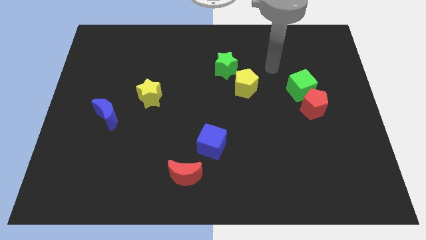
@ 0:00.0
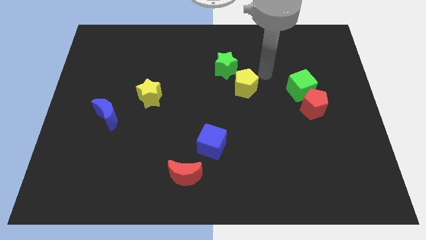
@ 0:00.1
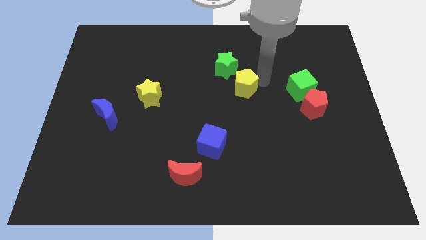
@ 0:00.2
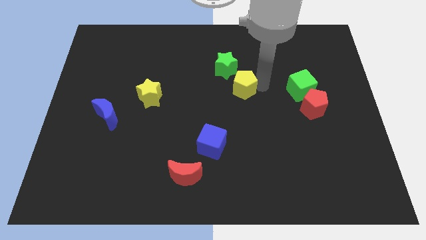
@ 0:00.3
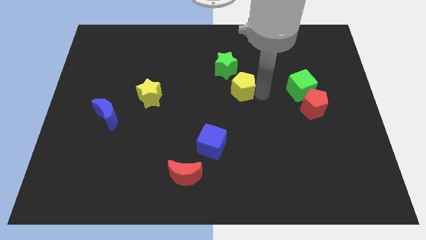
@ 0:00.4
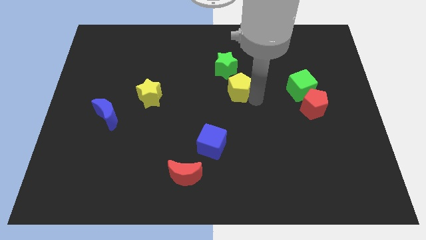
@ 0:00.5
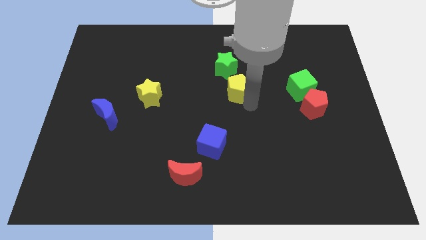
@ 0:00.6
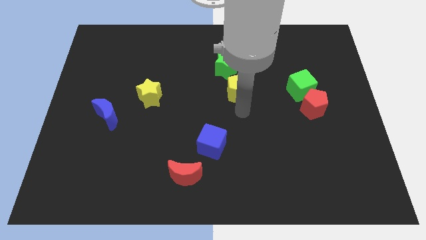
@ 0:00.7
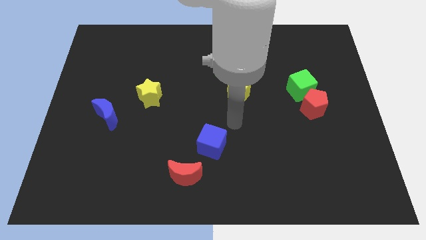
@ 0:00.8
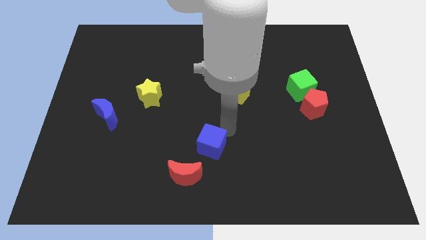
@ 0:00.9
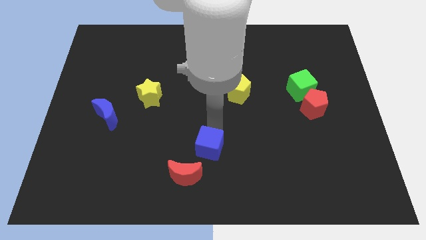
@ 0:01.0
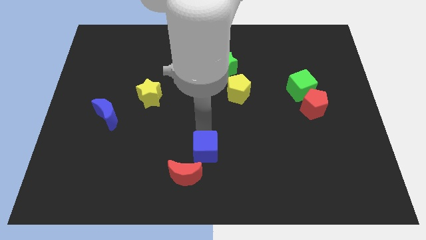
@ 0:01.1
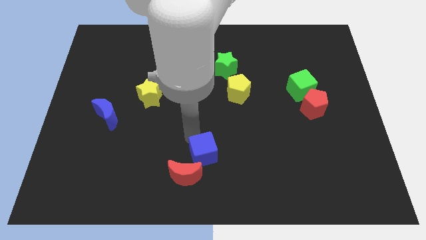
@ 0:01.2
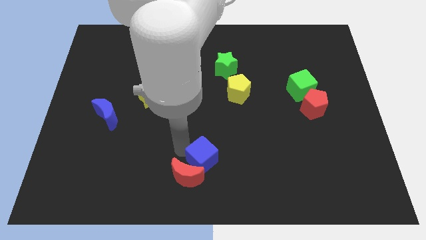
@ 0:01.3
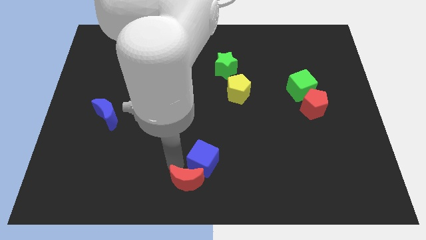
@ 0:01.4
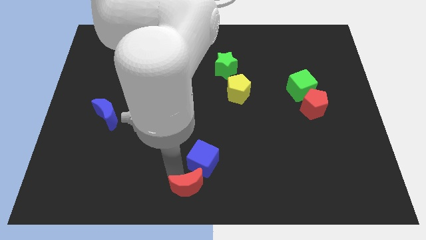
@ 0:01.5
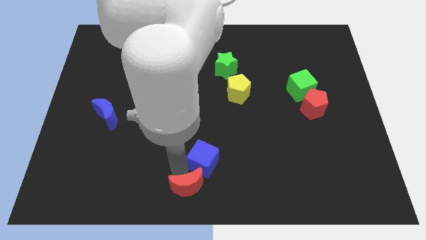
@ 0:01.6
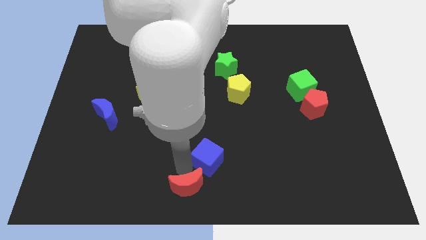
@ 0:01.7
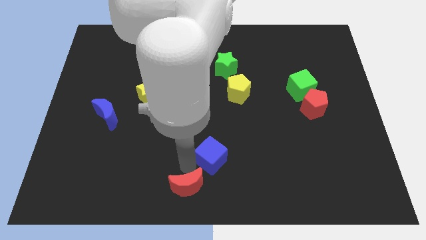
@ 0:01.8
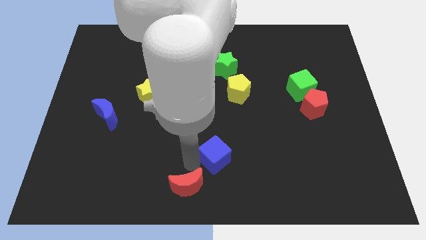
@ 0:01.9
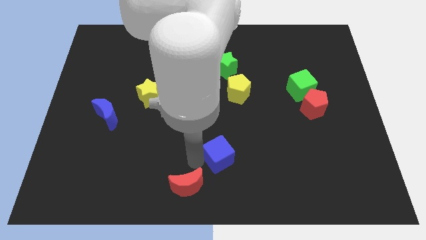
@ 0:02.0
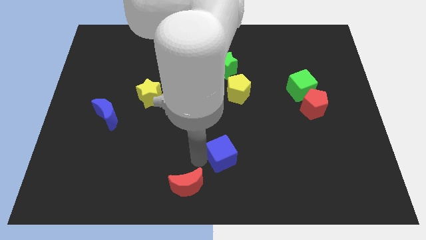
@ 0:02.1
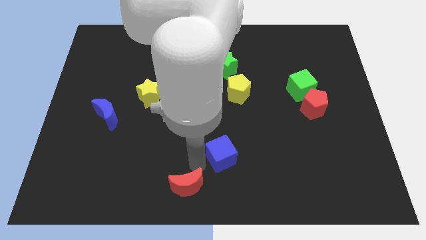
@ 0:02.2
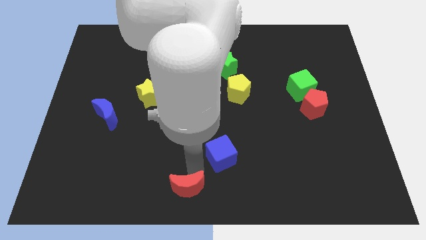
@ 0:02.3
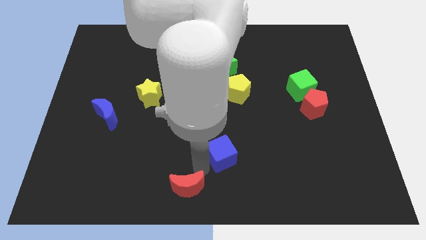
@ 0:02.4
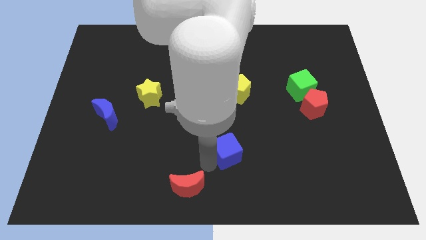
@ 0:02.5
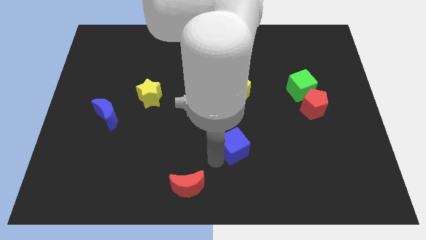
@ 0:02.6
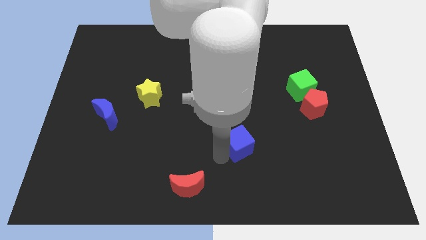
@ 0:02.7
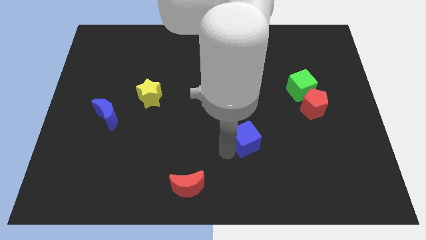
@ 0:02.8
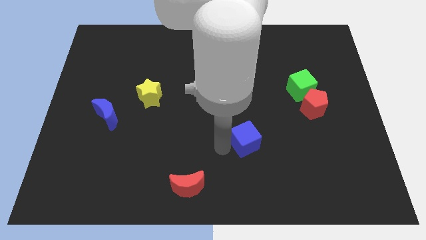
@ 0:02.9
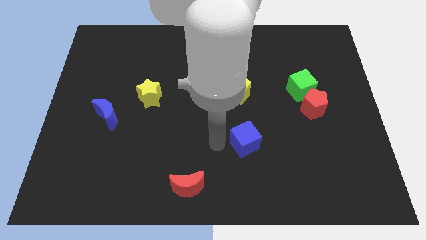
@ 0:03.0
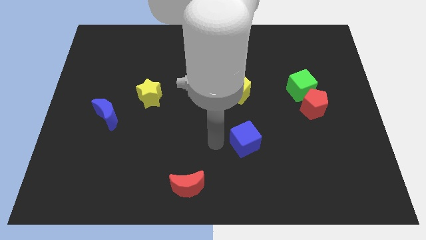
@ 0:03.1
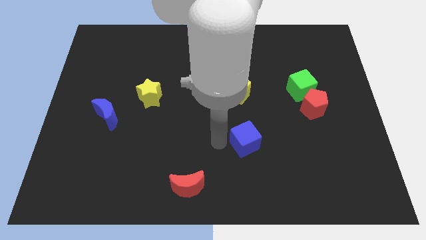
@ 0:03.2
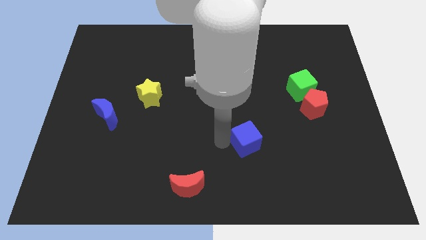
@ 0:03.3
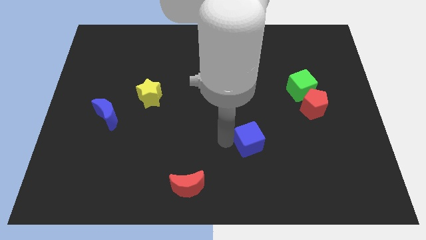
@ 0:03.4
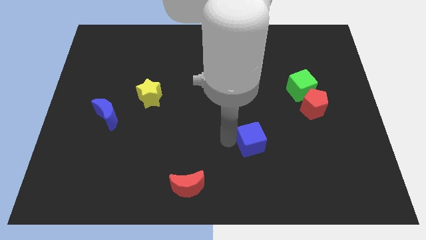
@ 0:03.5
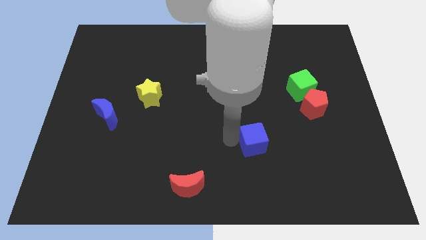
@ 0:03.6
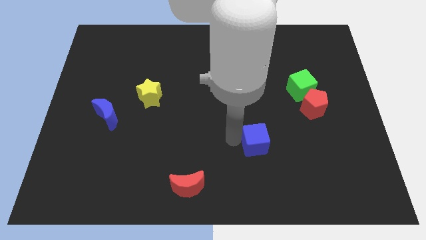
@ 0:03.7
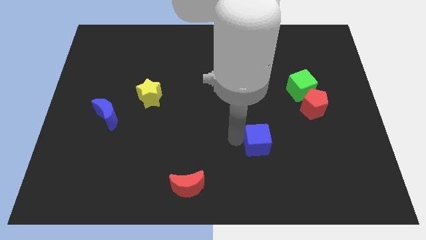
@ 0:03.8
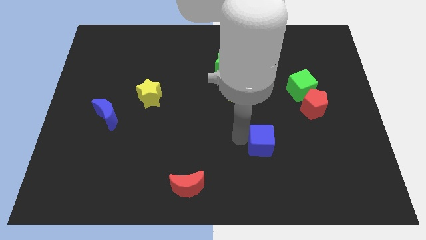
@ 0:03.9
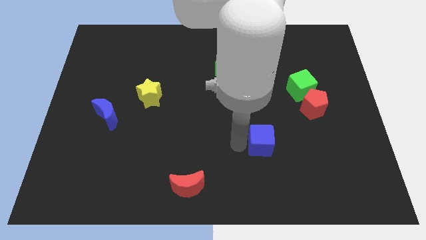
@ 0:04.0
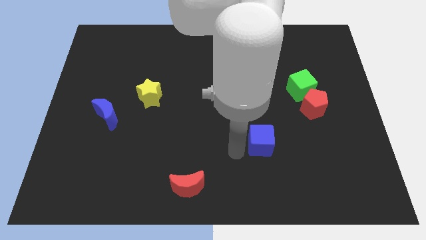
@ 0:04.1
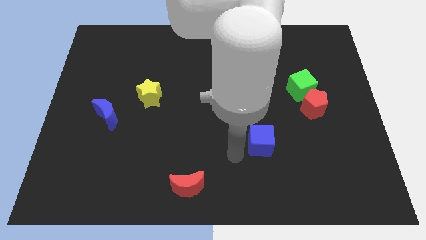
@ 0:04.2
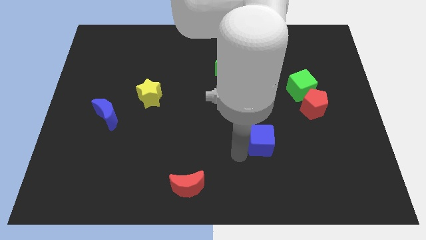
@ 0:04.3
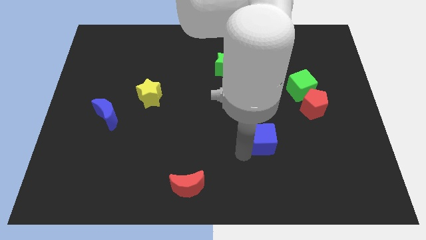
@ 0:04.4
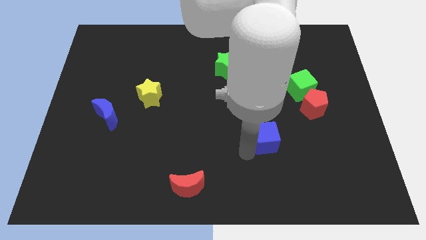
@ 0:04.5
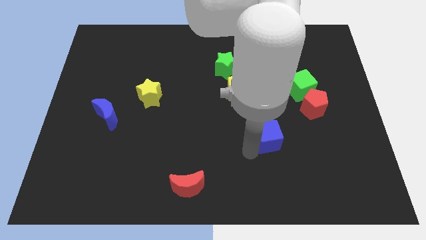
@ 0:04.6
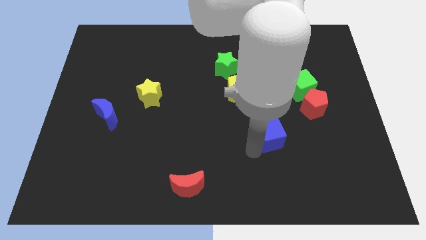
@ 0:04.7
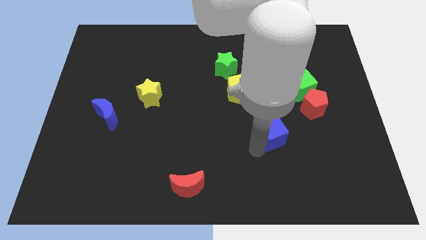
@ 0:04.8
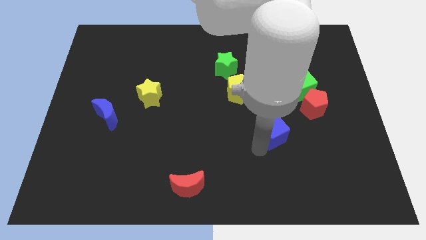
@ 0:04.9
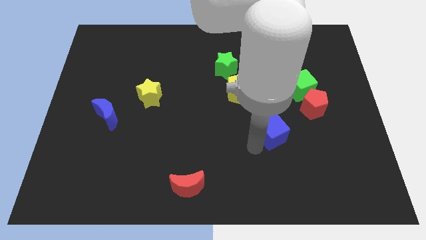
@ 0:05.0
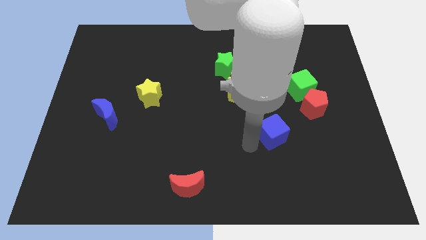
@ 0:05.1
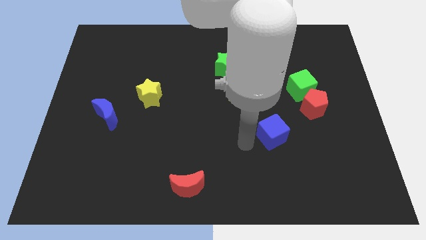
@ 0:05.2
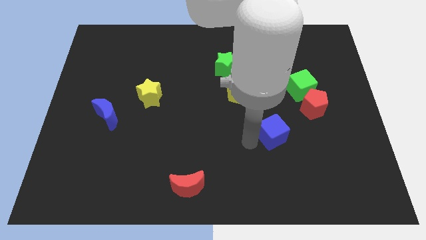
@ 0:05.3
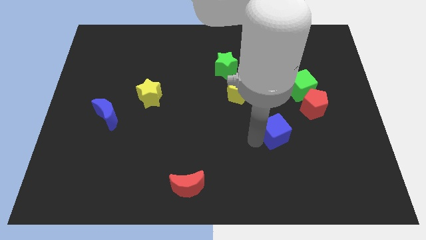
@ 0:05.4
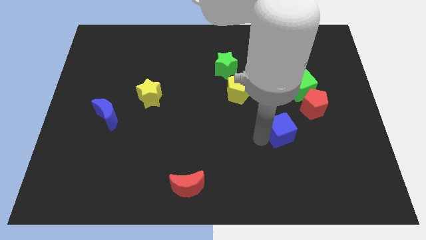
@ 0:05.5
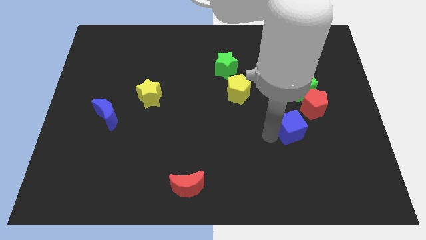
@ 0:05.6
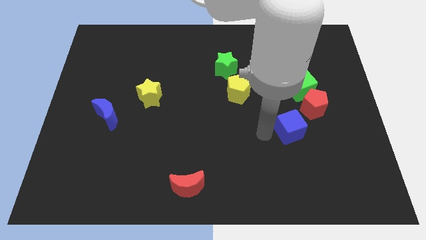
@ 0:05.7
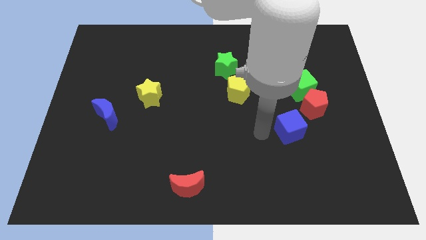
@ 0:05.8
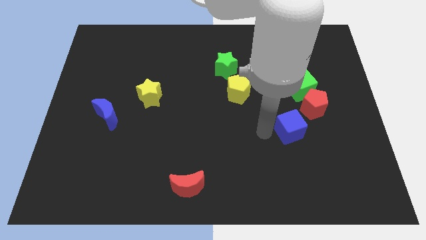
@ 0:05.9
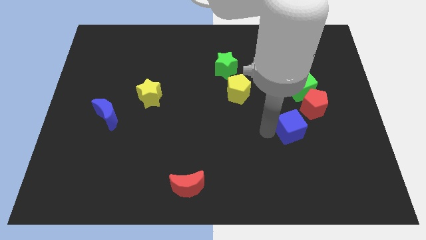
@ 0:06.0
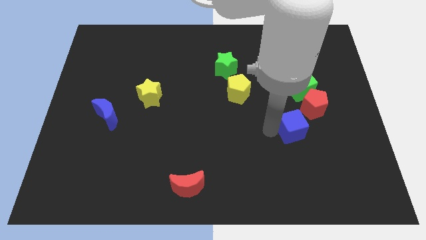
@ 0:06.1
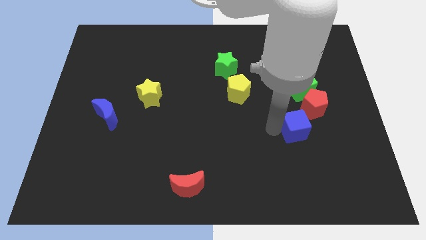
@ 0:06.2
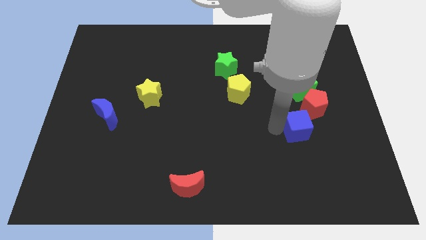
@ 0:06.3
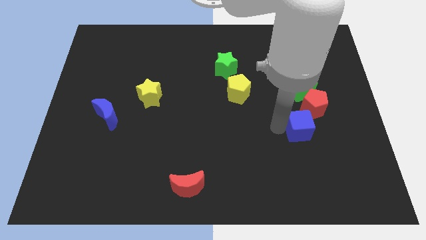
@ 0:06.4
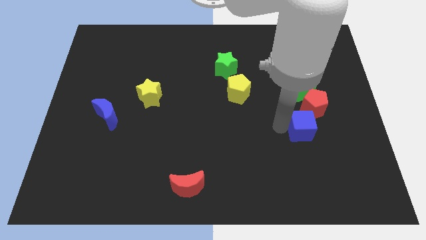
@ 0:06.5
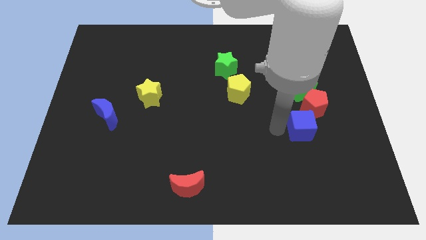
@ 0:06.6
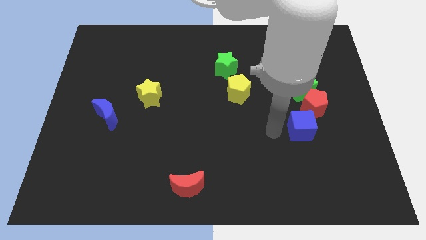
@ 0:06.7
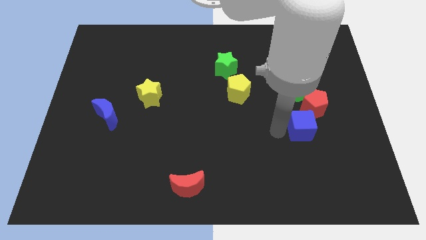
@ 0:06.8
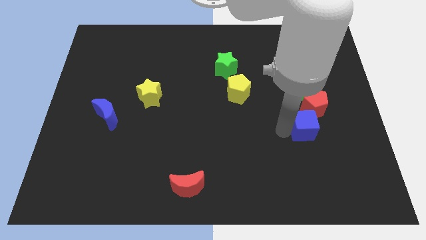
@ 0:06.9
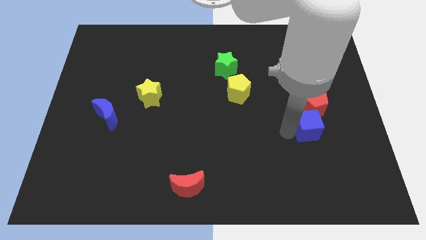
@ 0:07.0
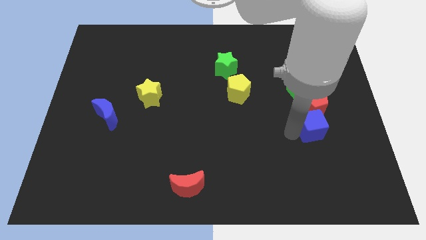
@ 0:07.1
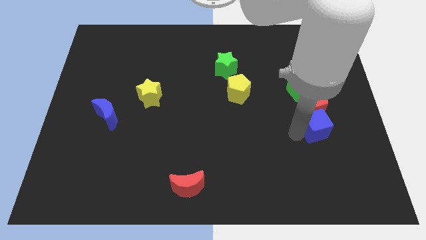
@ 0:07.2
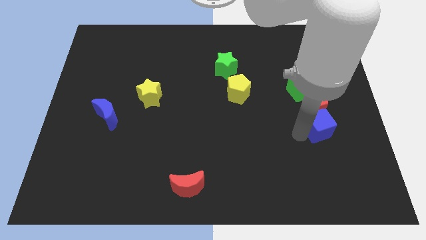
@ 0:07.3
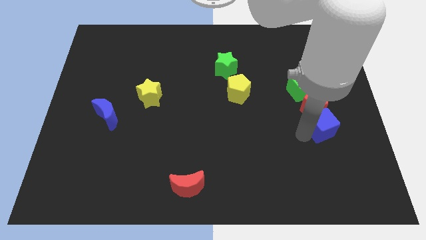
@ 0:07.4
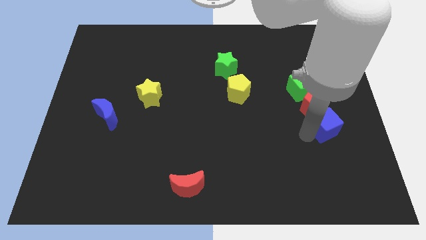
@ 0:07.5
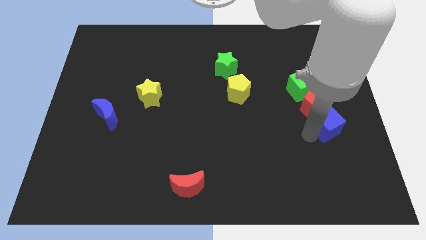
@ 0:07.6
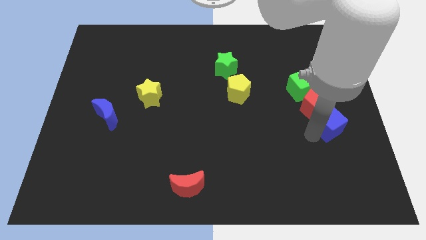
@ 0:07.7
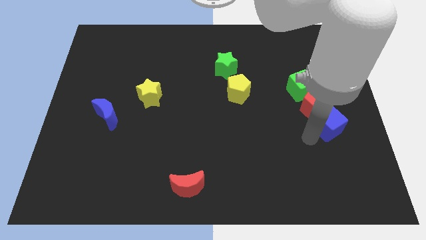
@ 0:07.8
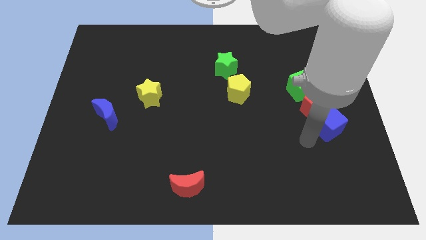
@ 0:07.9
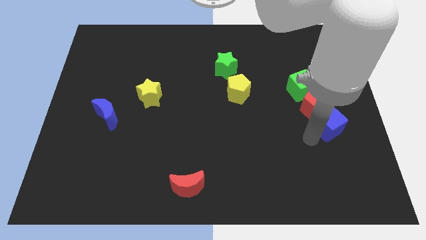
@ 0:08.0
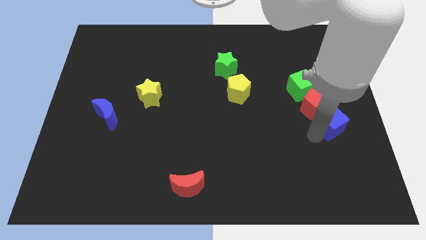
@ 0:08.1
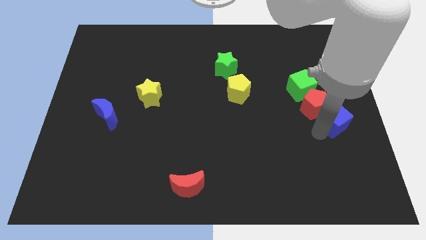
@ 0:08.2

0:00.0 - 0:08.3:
move the blue cube to the center right
